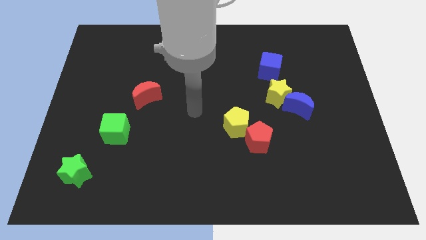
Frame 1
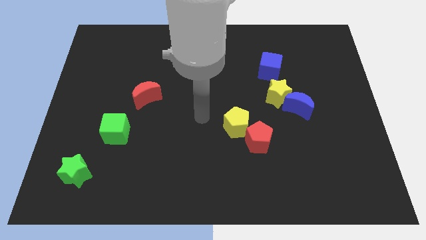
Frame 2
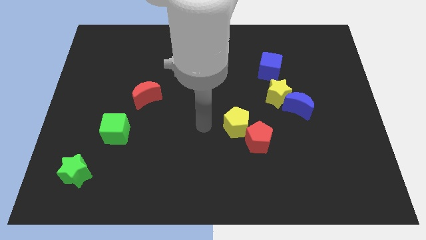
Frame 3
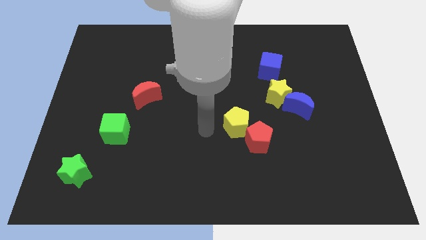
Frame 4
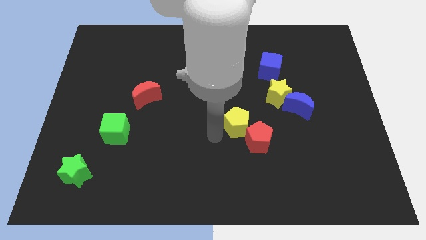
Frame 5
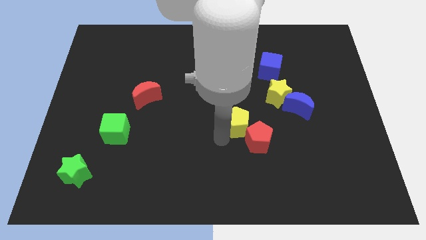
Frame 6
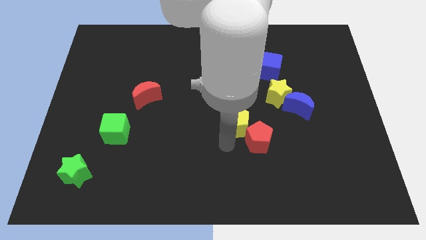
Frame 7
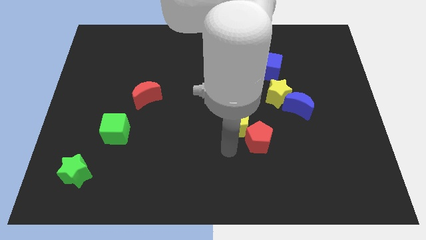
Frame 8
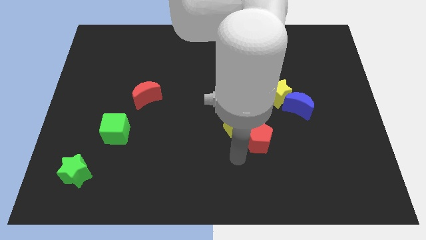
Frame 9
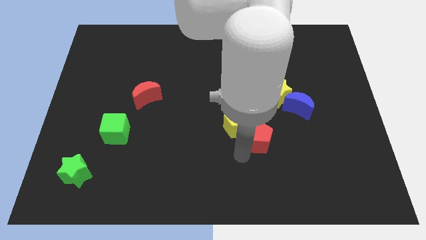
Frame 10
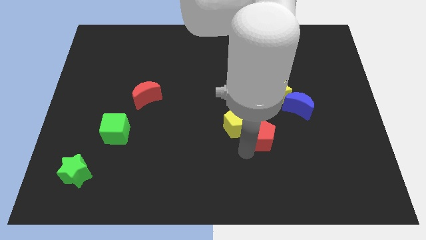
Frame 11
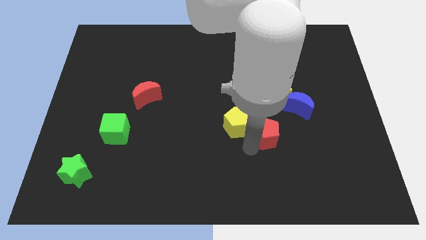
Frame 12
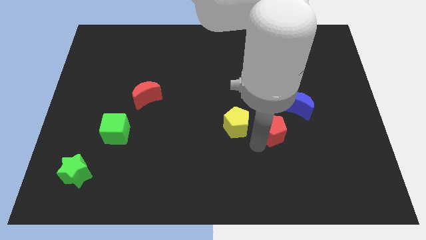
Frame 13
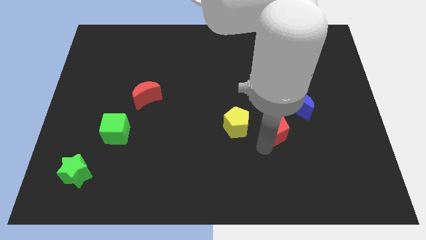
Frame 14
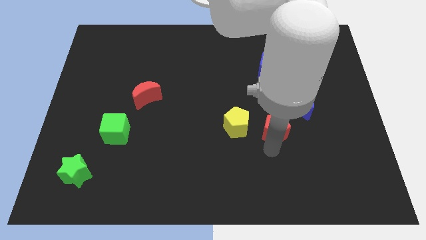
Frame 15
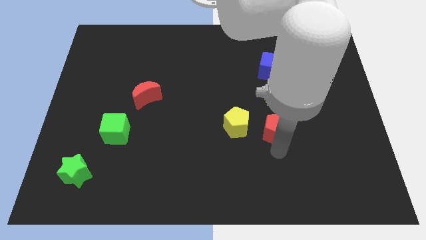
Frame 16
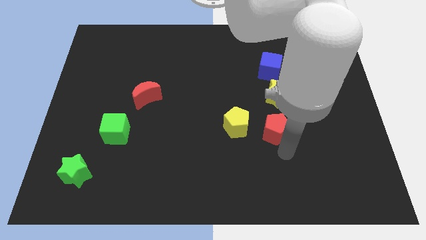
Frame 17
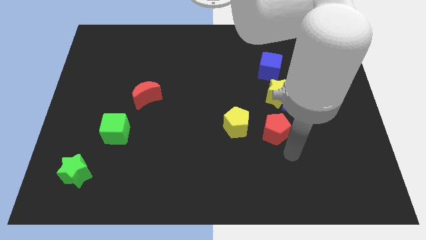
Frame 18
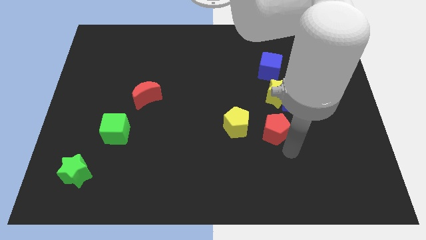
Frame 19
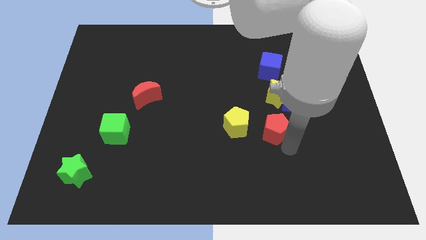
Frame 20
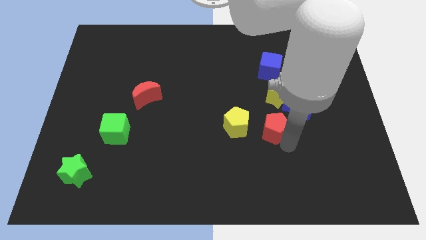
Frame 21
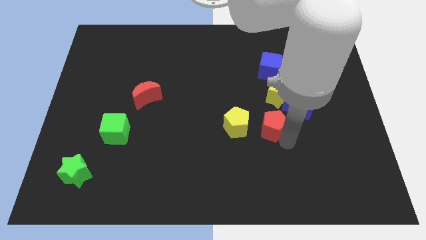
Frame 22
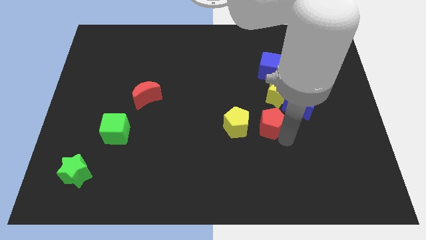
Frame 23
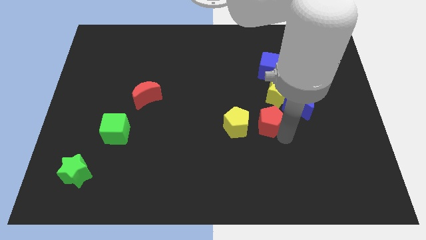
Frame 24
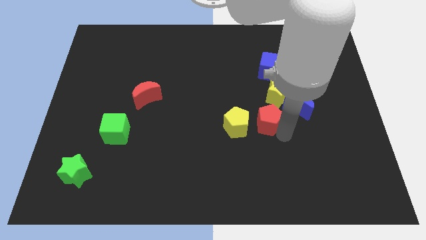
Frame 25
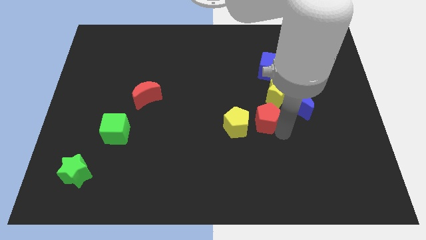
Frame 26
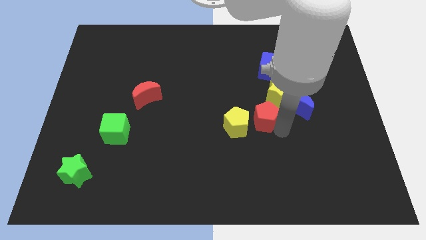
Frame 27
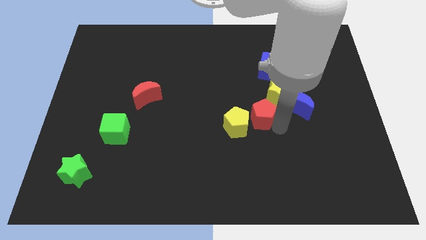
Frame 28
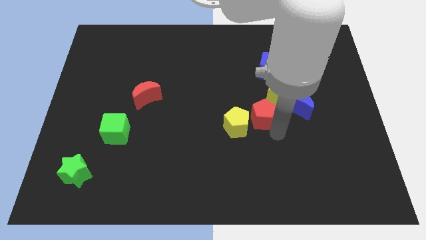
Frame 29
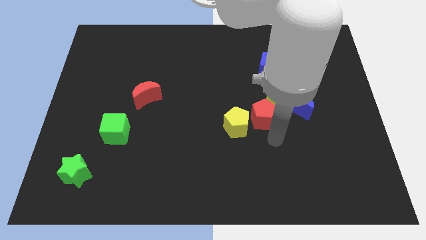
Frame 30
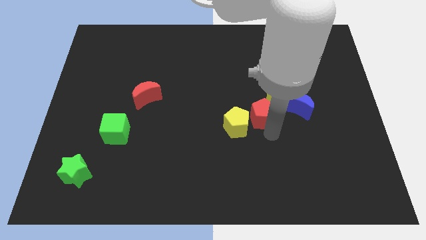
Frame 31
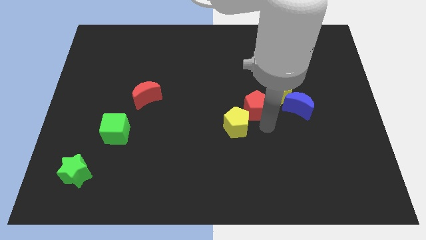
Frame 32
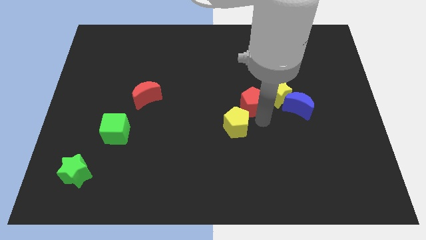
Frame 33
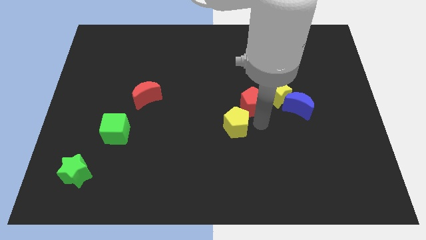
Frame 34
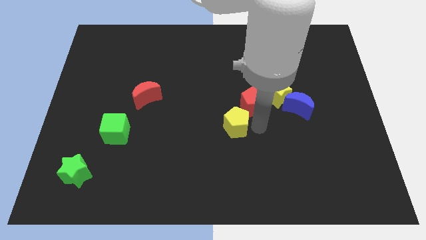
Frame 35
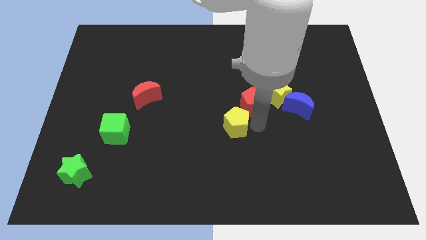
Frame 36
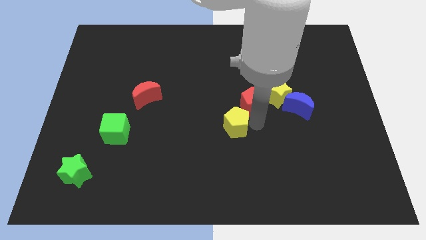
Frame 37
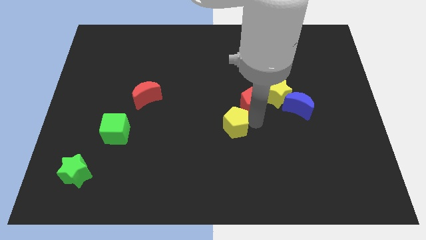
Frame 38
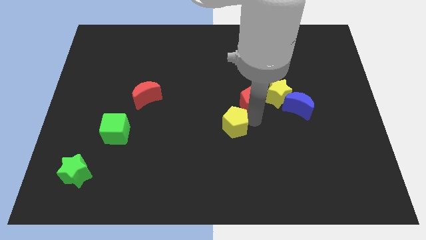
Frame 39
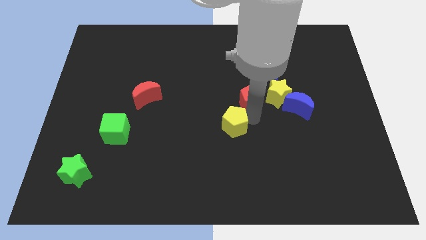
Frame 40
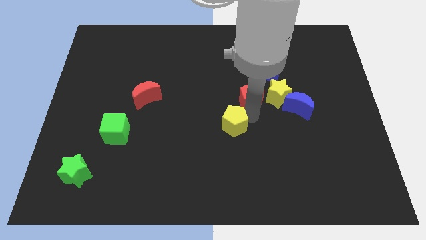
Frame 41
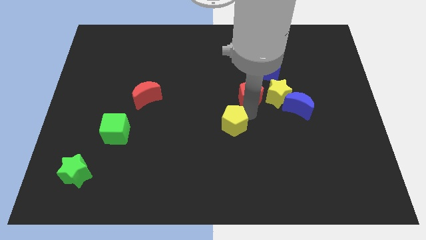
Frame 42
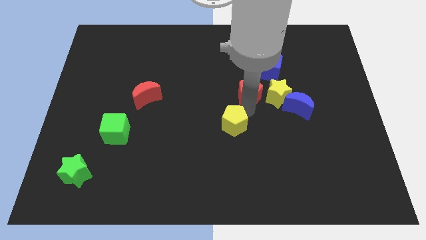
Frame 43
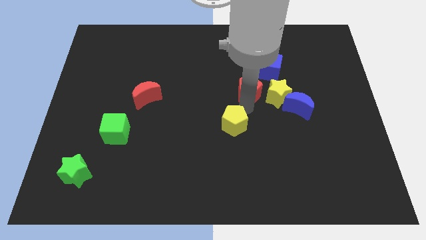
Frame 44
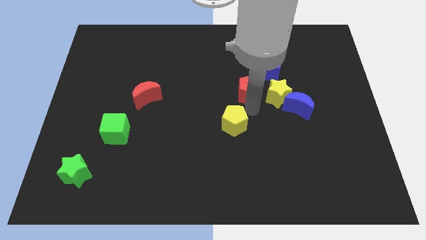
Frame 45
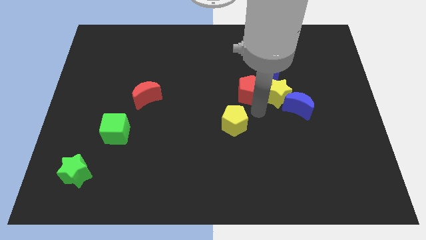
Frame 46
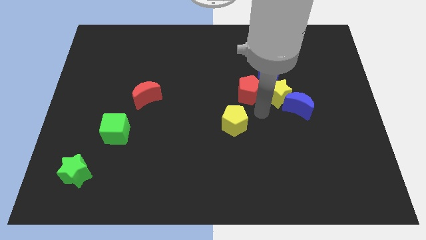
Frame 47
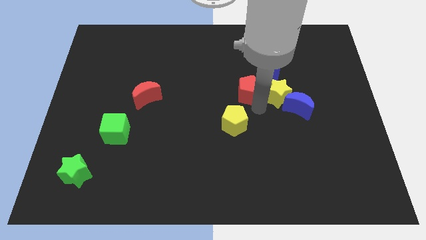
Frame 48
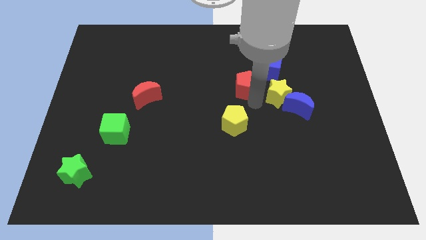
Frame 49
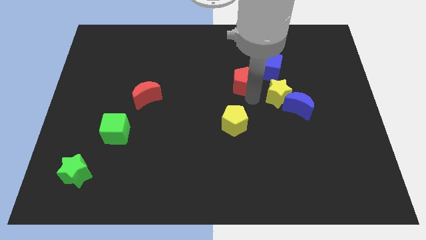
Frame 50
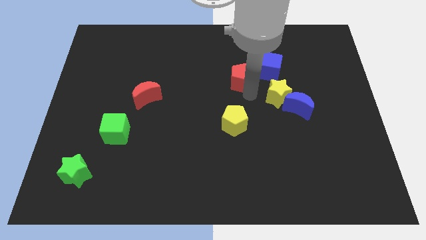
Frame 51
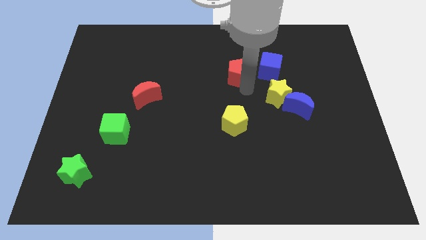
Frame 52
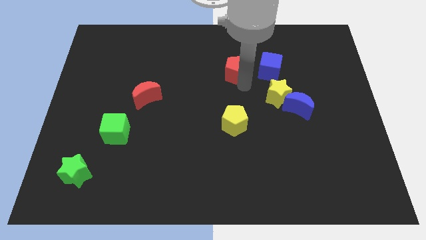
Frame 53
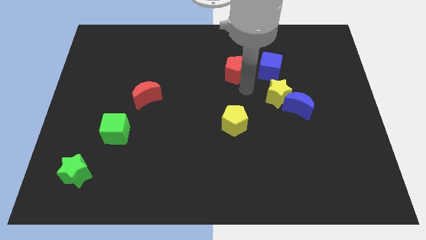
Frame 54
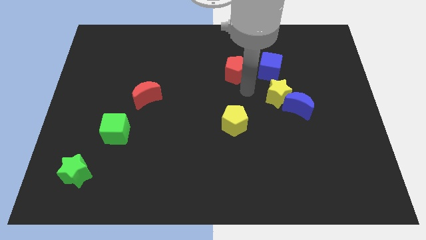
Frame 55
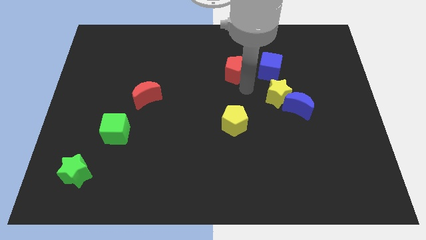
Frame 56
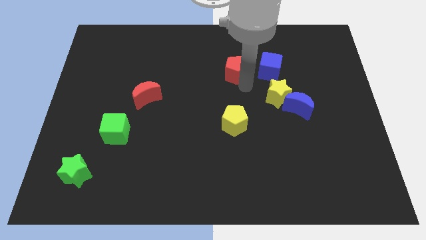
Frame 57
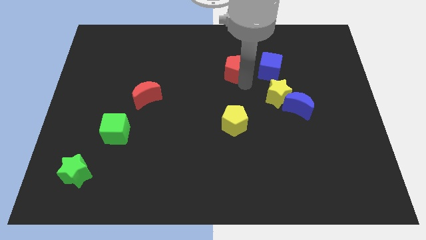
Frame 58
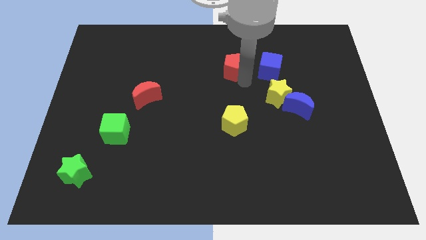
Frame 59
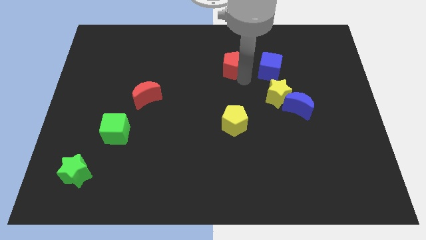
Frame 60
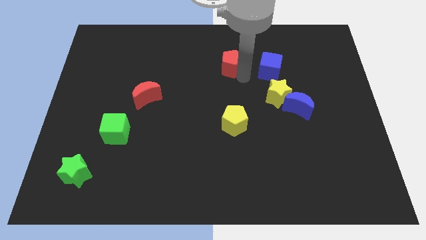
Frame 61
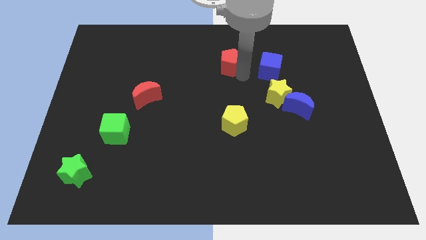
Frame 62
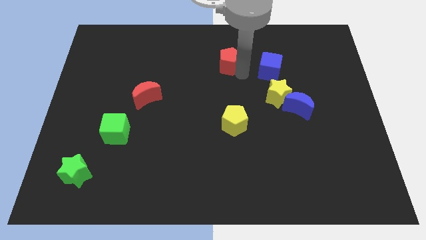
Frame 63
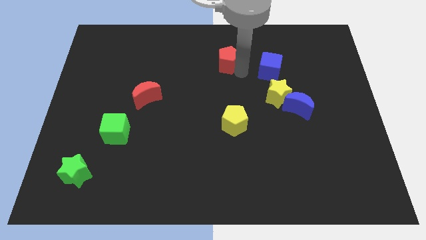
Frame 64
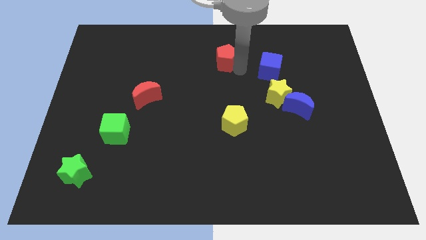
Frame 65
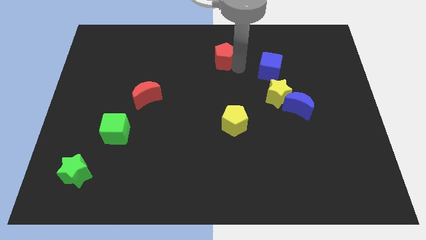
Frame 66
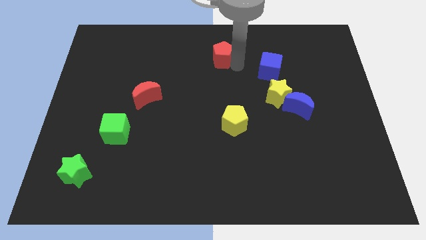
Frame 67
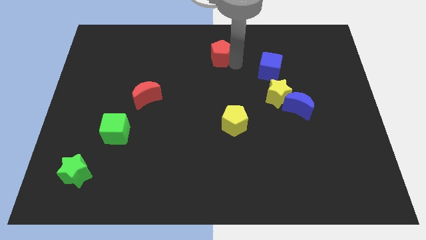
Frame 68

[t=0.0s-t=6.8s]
put the red pentagon to the top side

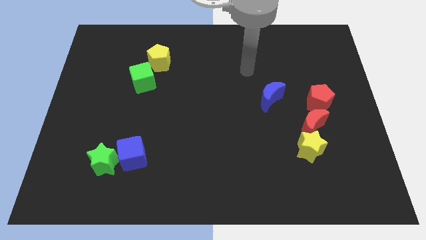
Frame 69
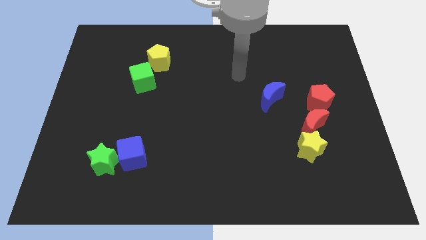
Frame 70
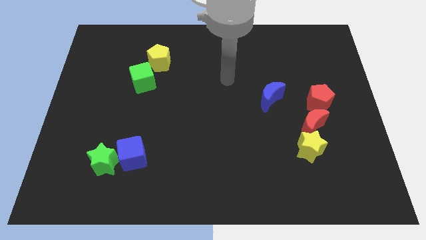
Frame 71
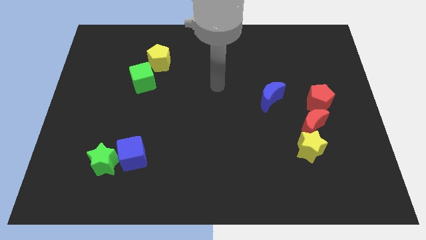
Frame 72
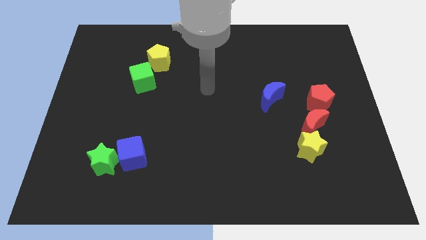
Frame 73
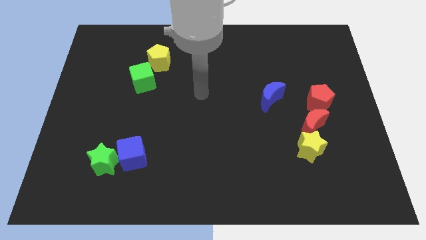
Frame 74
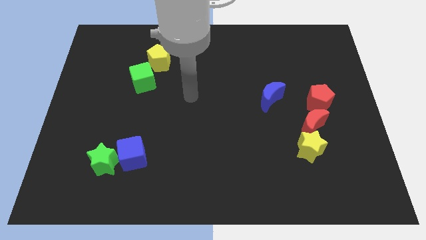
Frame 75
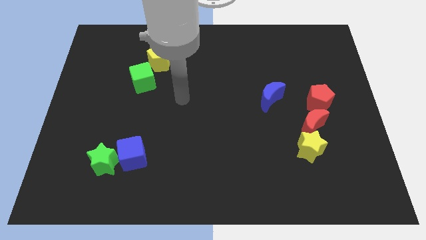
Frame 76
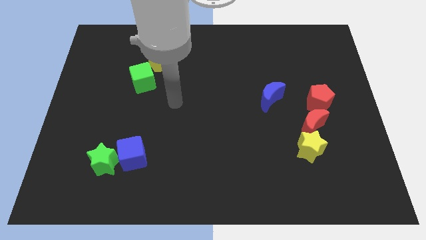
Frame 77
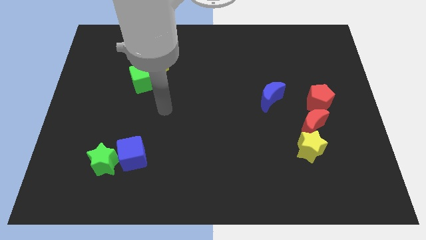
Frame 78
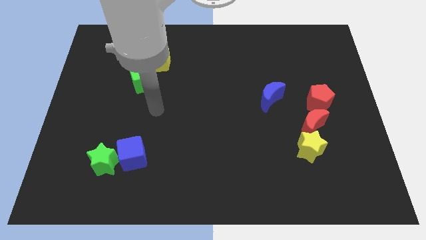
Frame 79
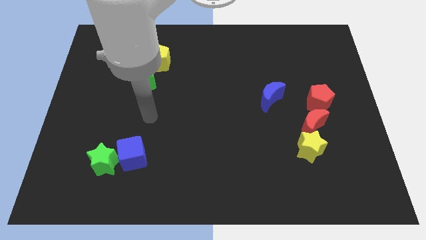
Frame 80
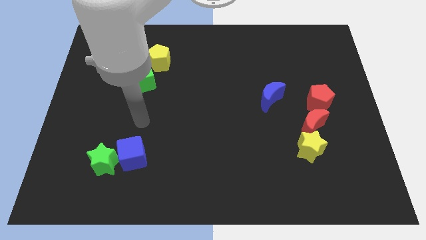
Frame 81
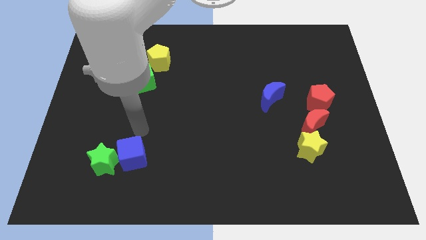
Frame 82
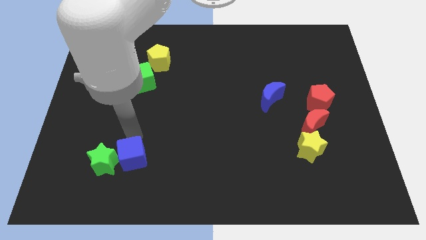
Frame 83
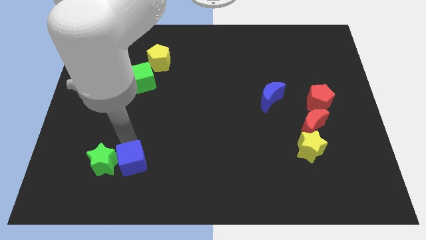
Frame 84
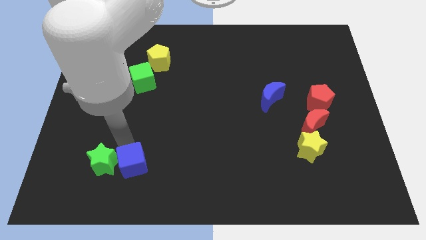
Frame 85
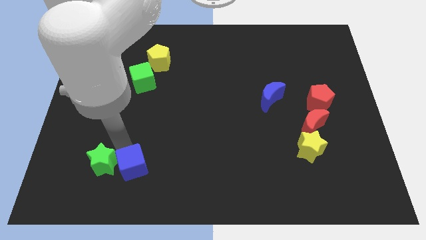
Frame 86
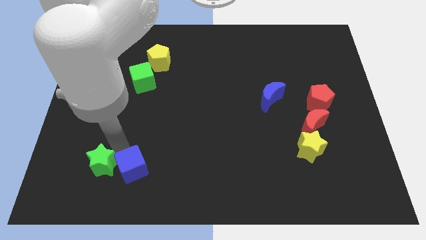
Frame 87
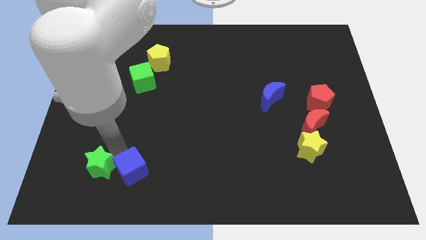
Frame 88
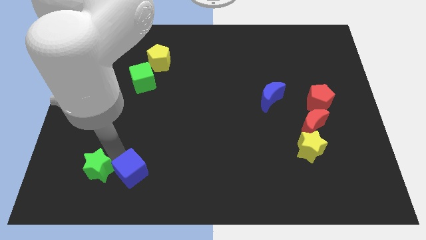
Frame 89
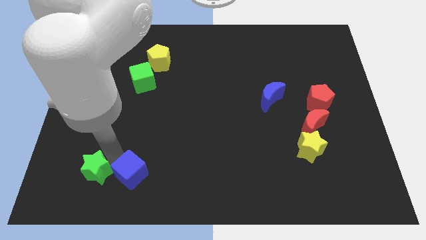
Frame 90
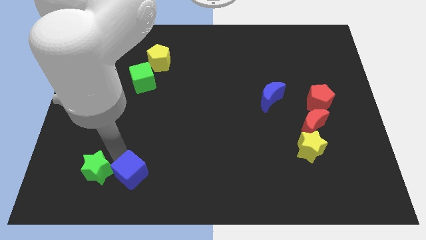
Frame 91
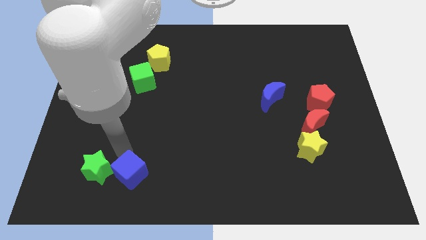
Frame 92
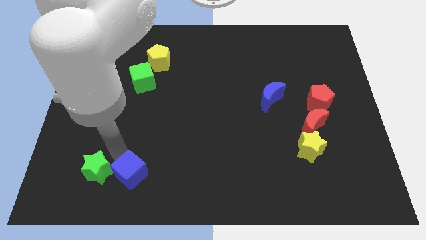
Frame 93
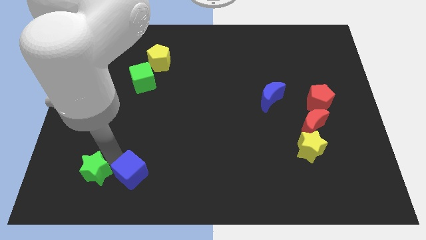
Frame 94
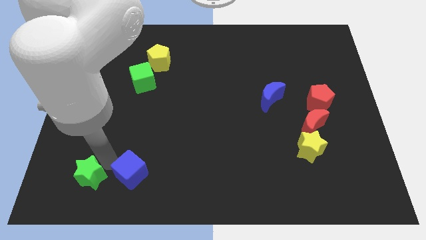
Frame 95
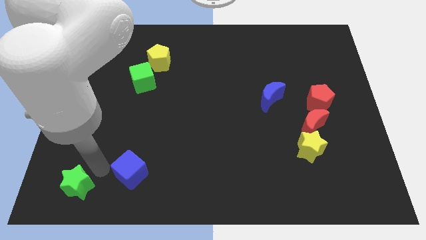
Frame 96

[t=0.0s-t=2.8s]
move the green star to the bottom left corner
